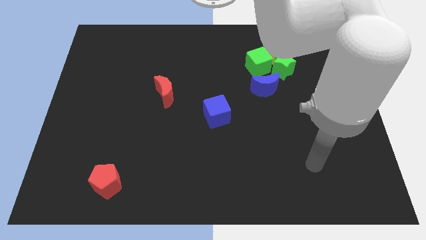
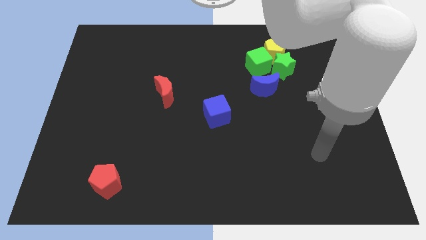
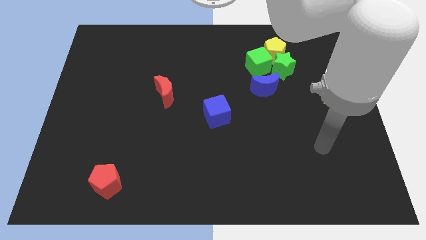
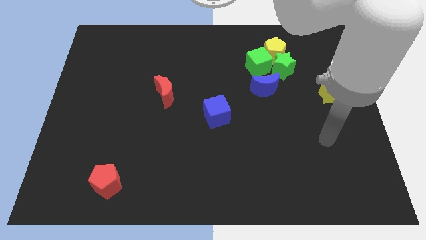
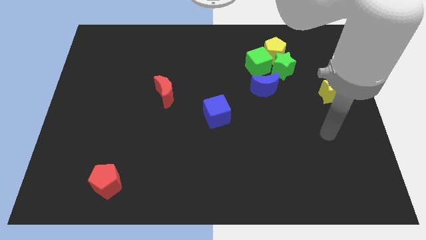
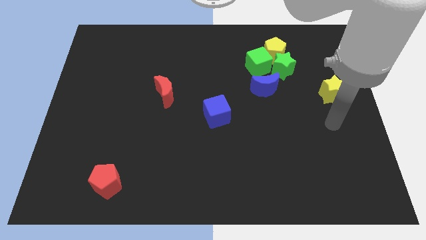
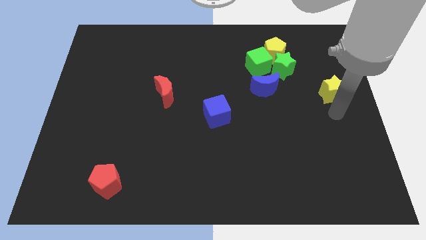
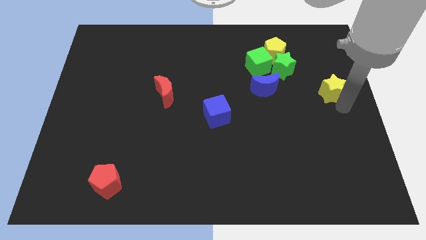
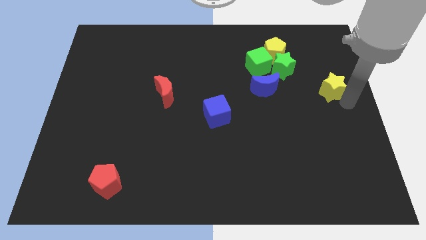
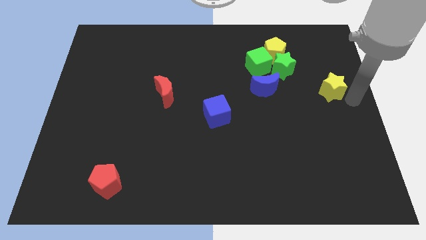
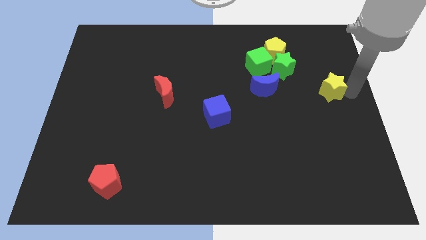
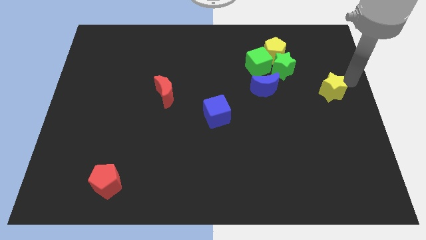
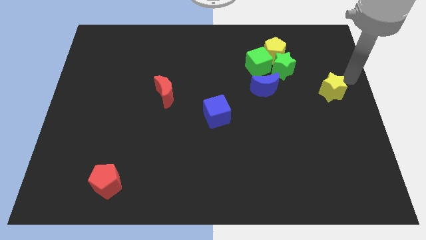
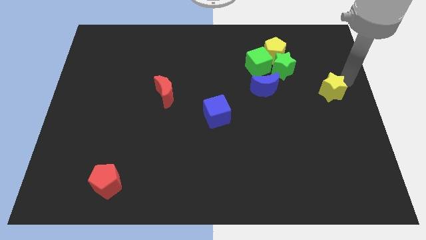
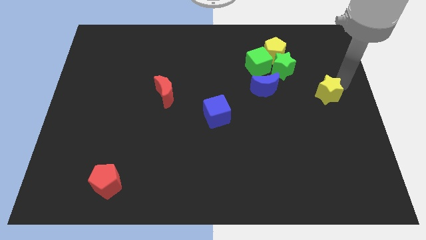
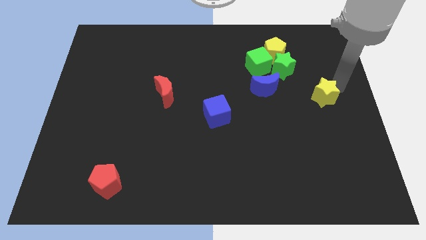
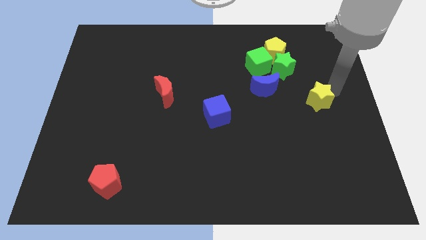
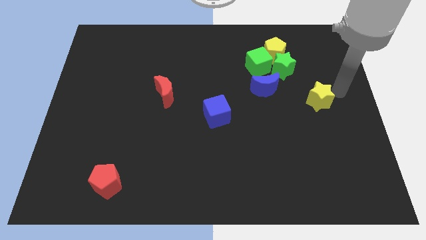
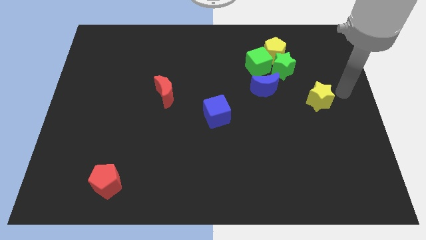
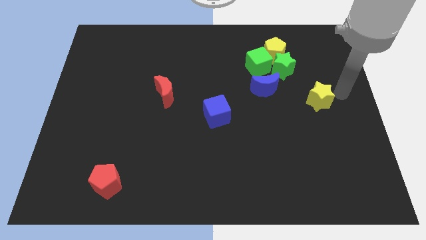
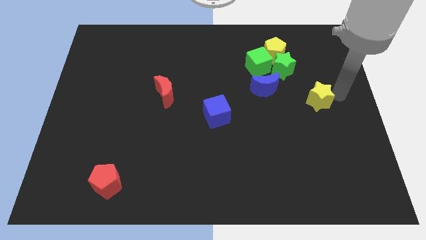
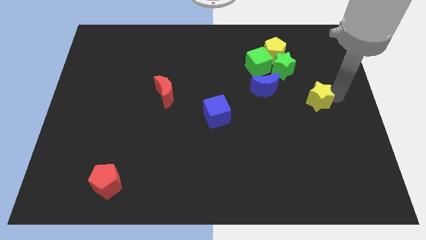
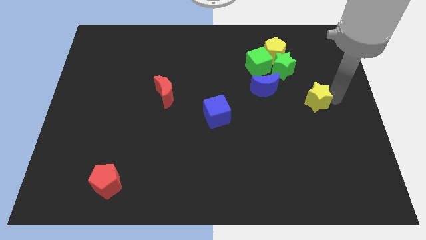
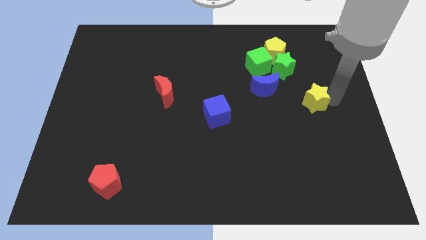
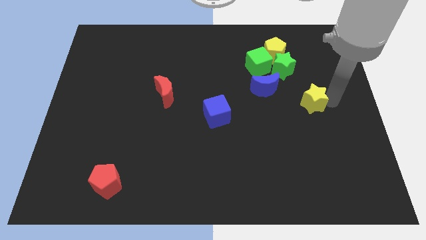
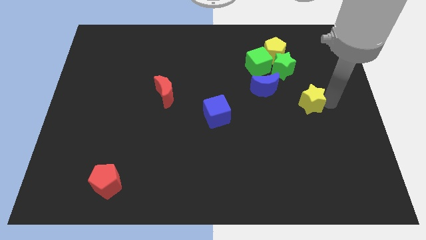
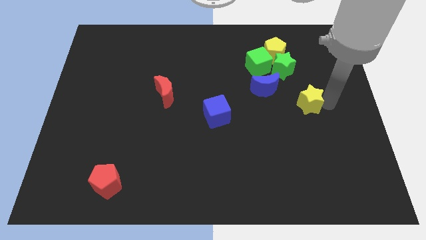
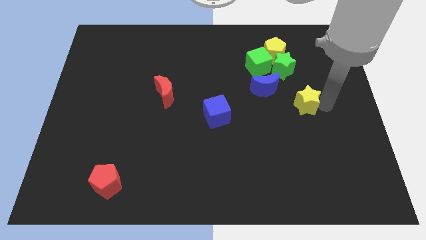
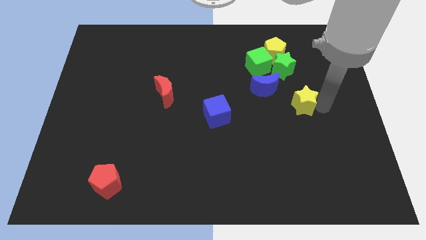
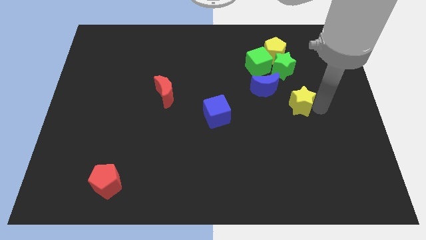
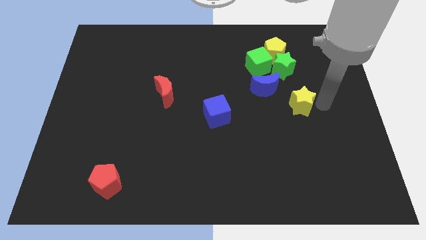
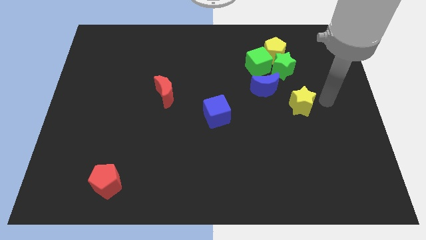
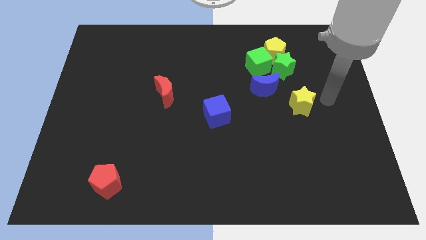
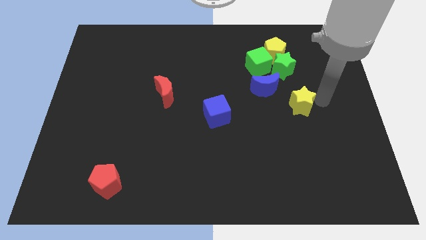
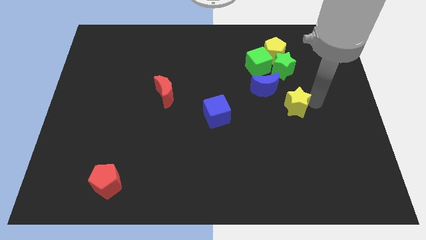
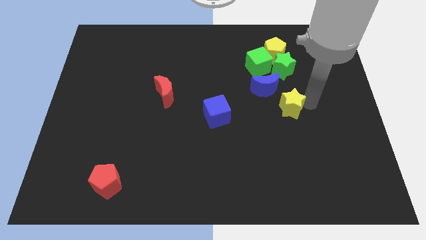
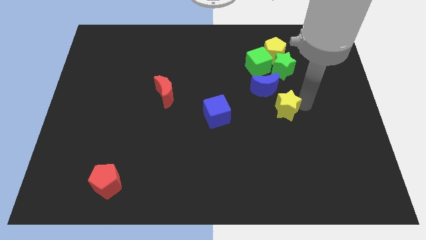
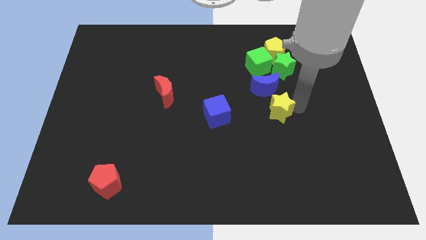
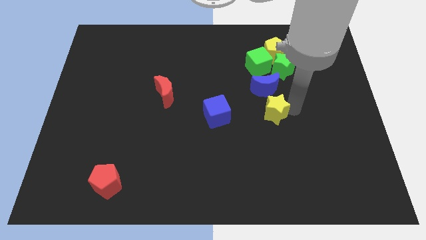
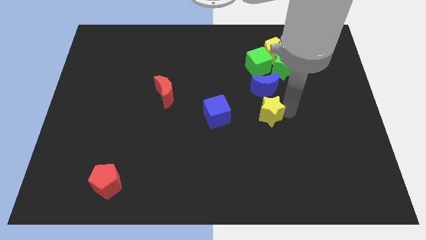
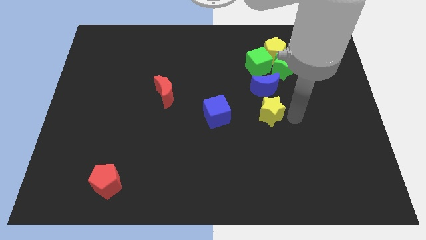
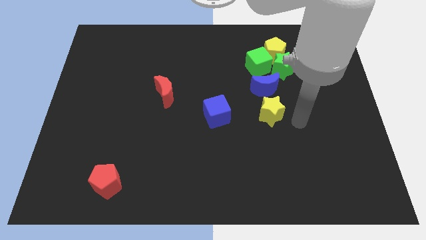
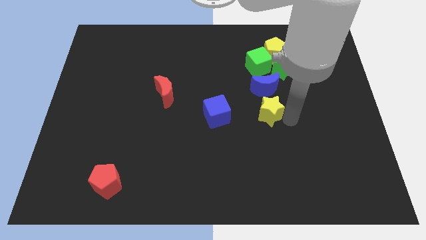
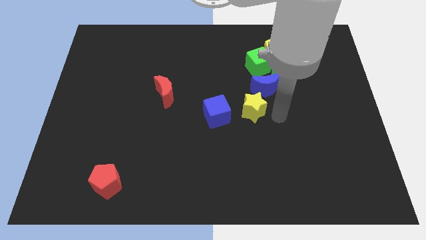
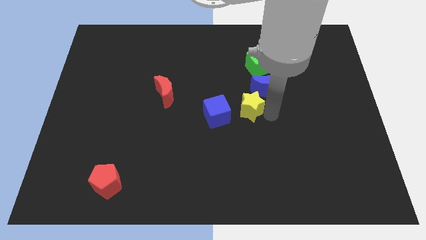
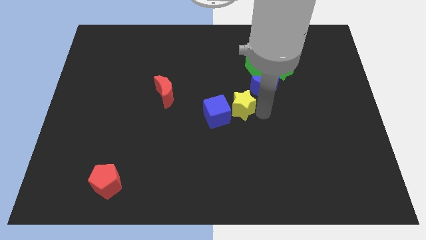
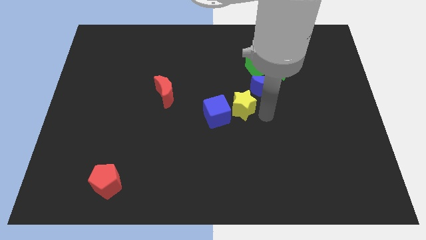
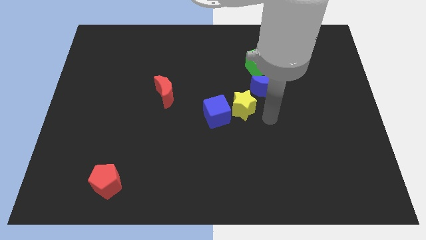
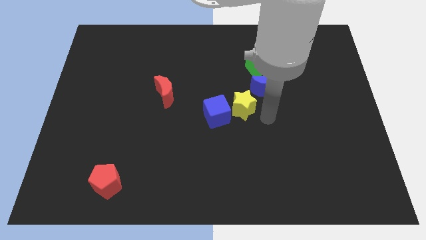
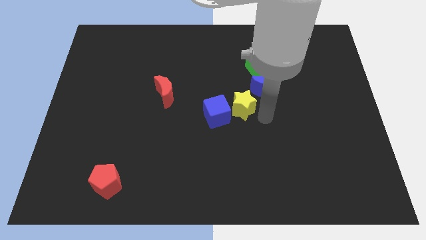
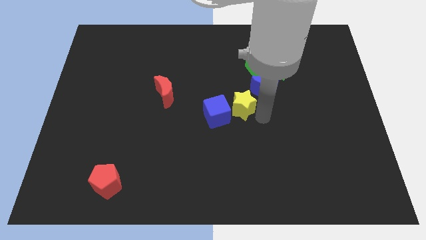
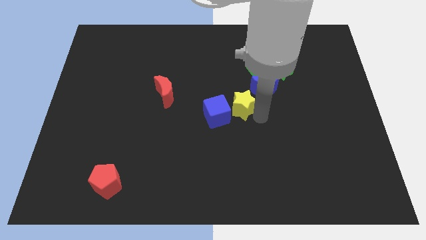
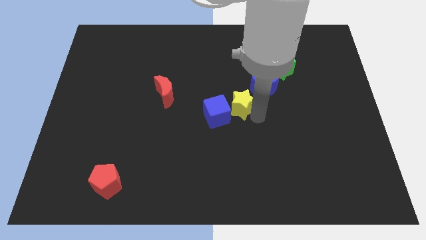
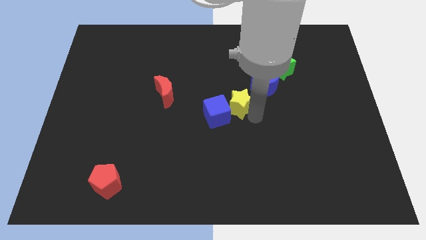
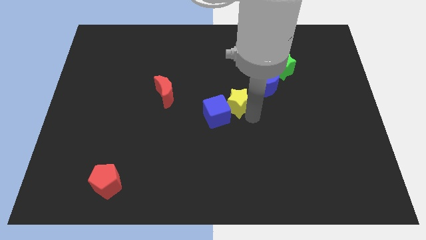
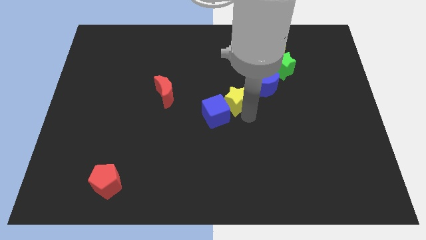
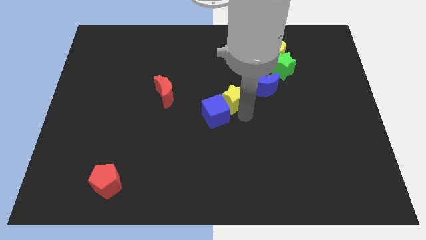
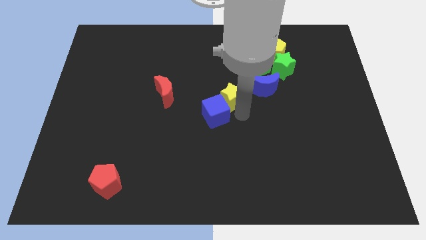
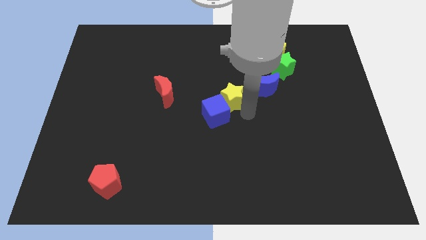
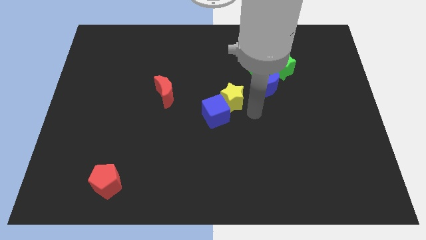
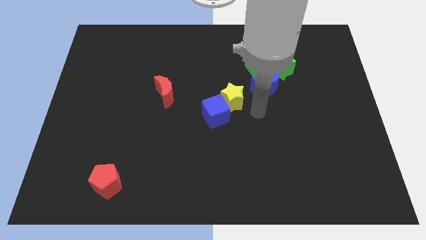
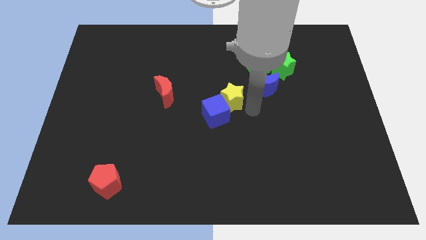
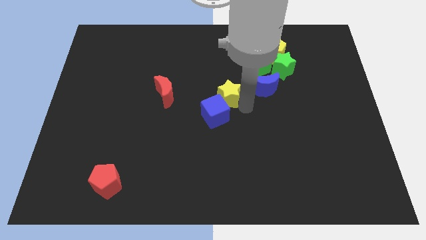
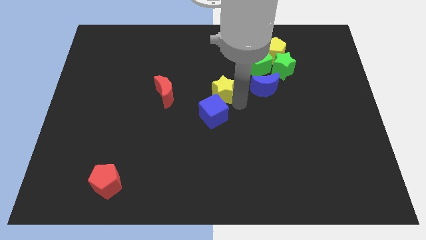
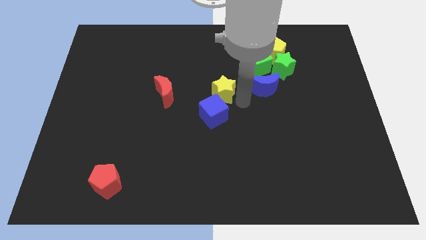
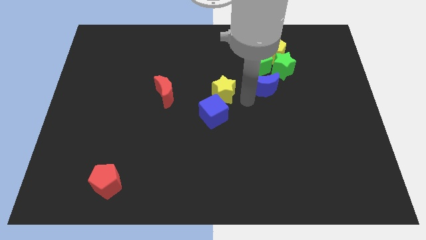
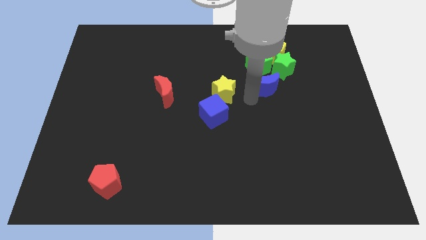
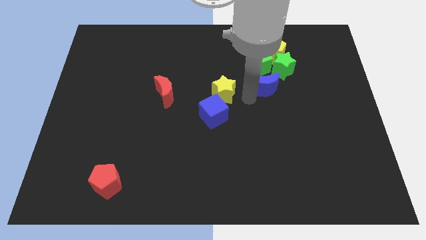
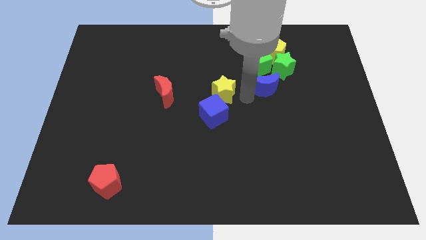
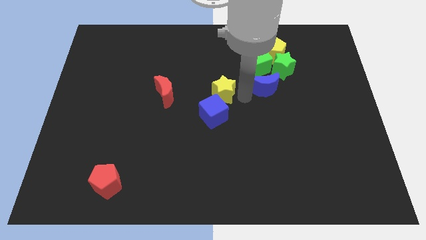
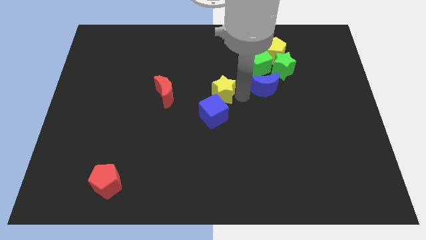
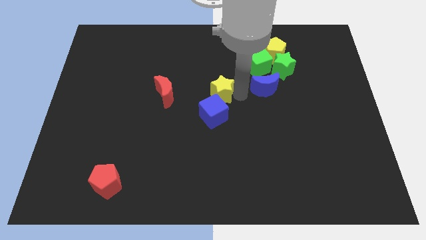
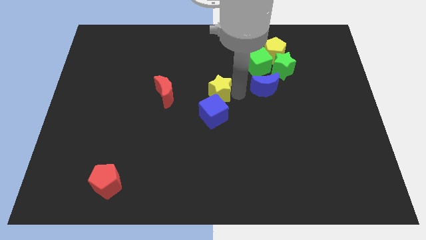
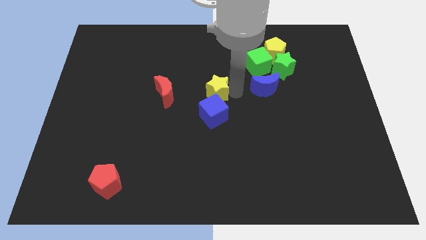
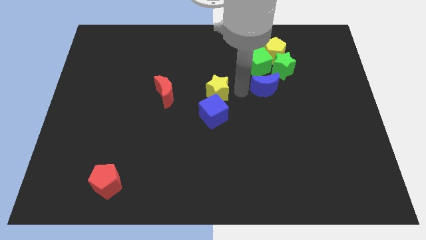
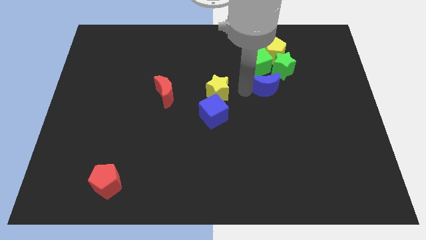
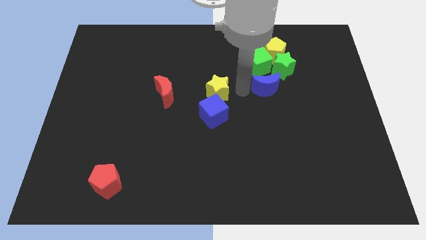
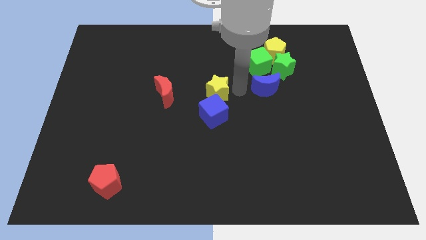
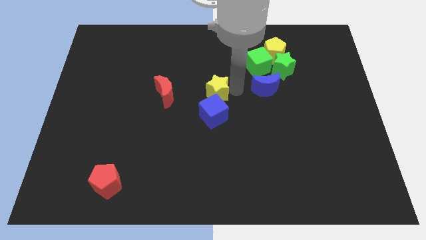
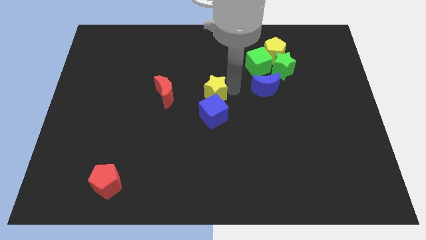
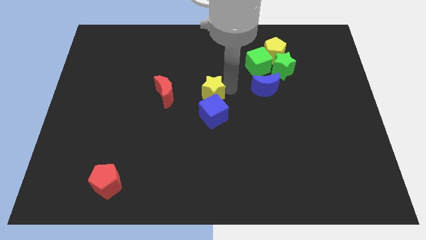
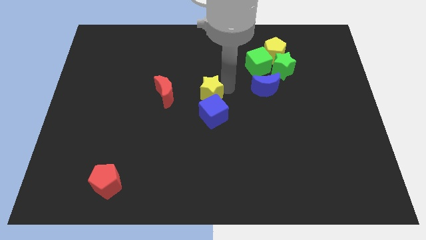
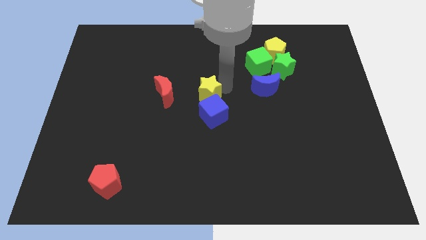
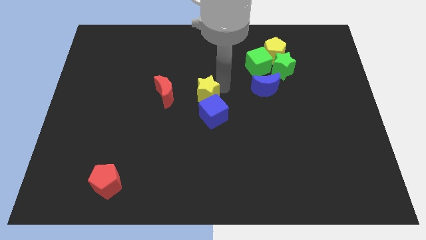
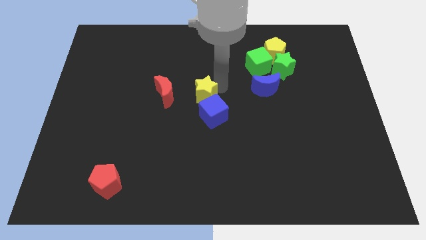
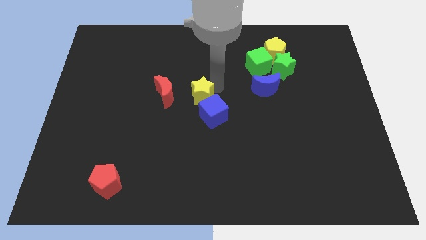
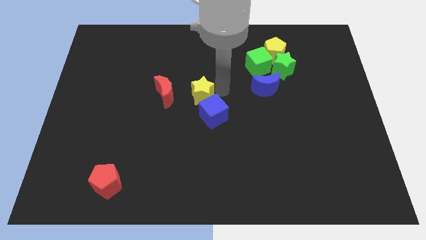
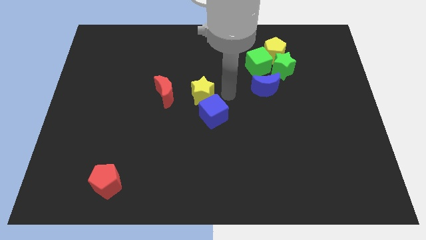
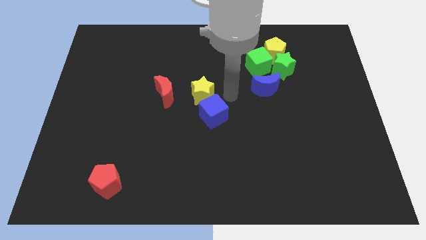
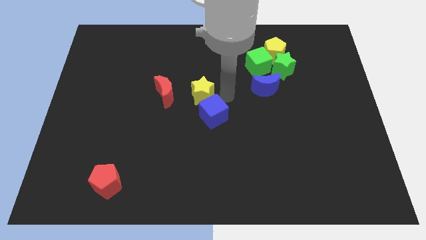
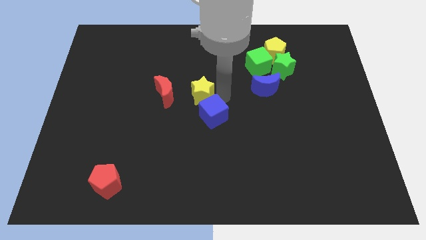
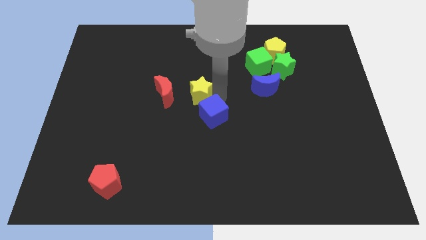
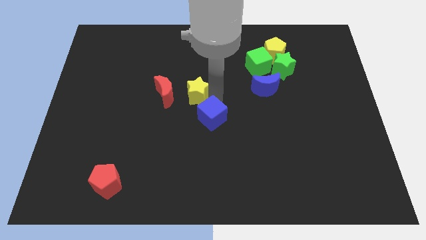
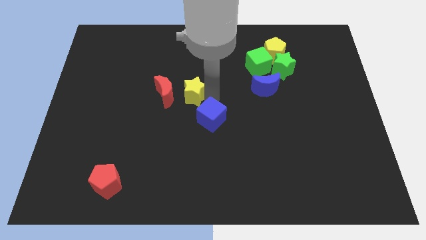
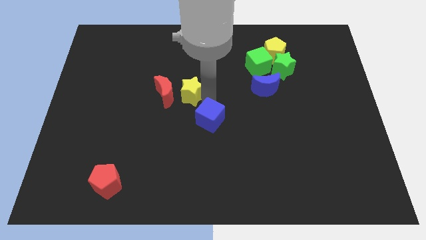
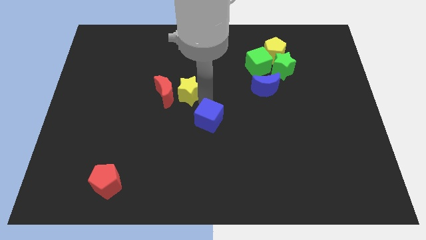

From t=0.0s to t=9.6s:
move the yellow star close to the red moon
